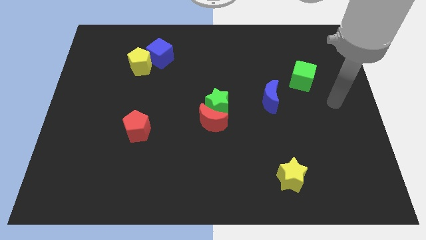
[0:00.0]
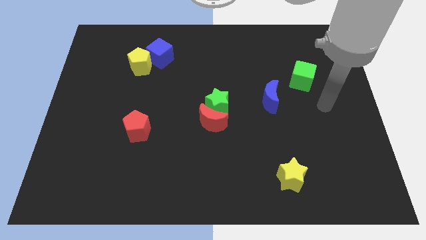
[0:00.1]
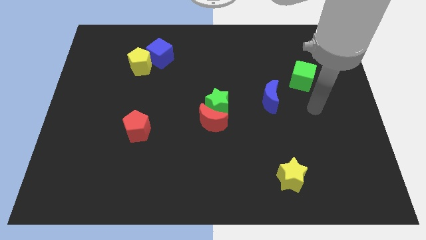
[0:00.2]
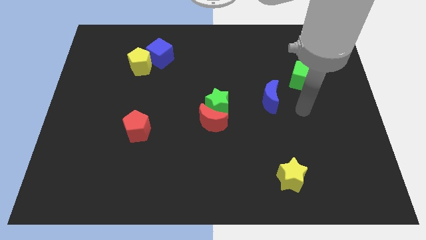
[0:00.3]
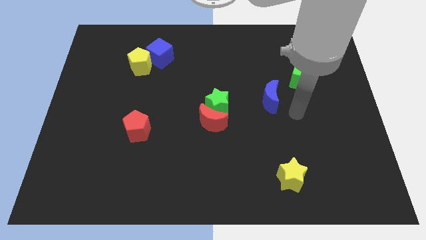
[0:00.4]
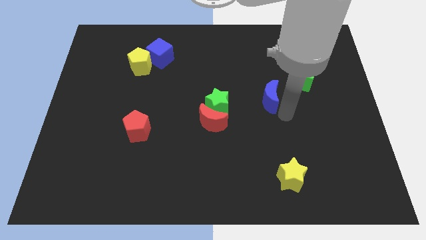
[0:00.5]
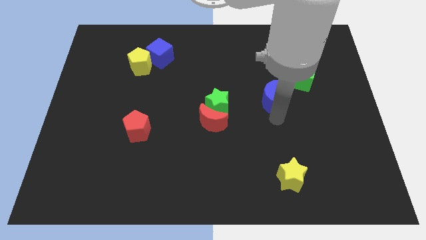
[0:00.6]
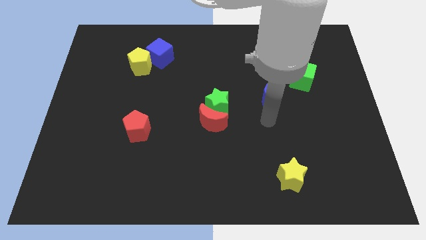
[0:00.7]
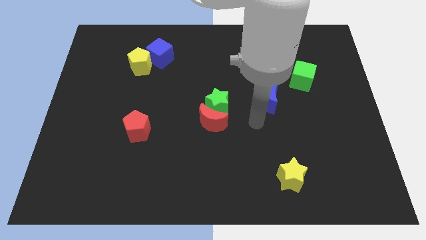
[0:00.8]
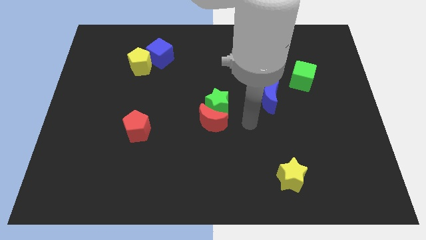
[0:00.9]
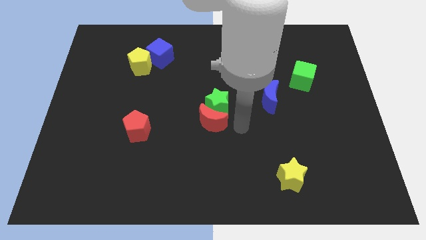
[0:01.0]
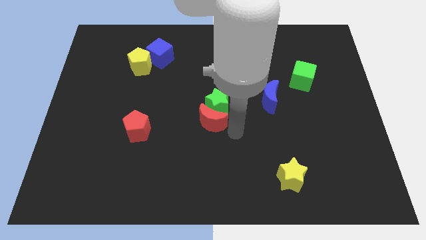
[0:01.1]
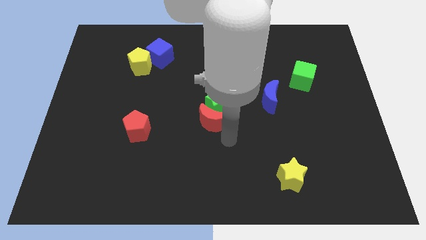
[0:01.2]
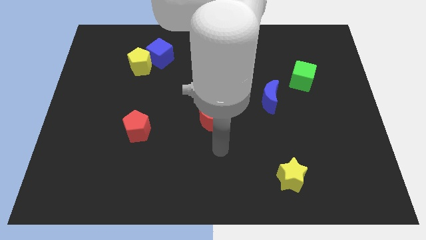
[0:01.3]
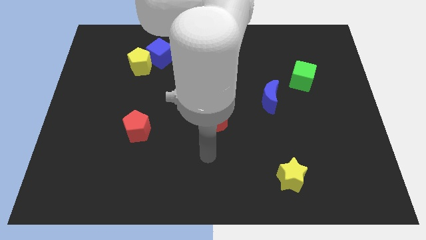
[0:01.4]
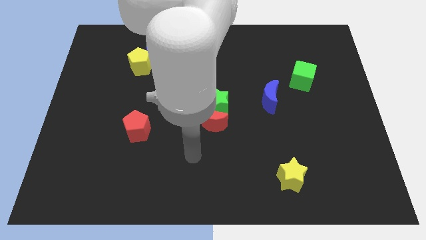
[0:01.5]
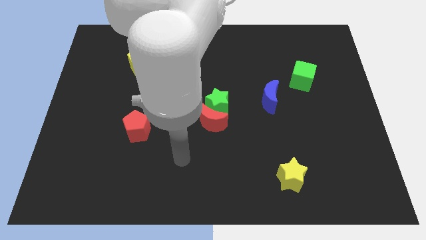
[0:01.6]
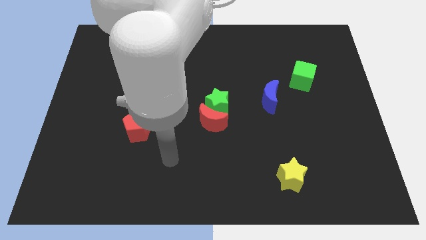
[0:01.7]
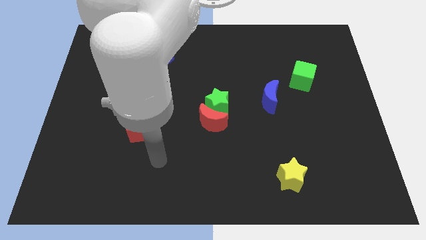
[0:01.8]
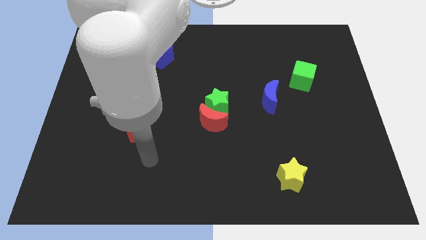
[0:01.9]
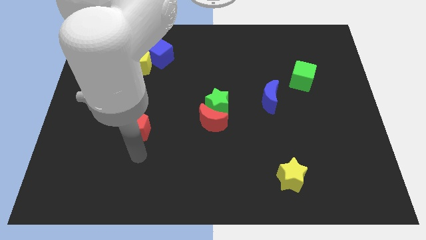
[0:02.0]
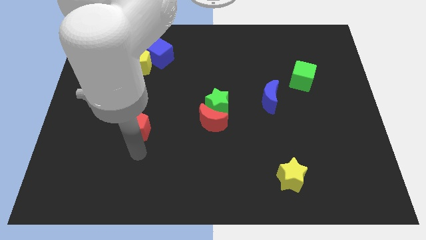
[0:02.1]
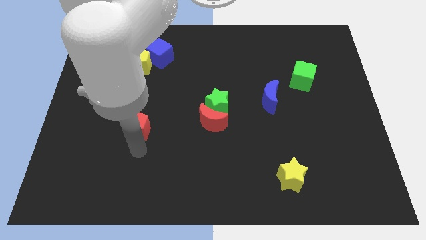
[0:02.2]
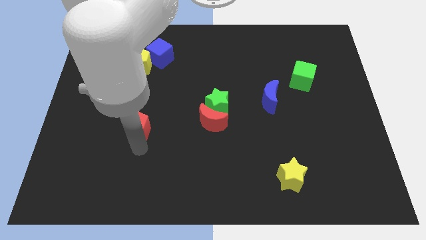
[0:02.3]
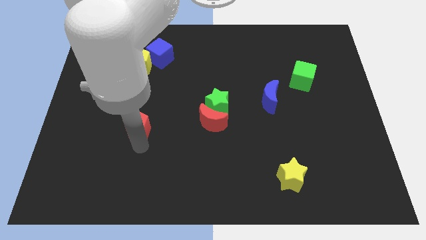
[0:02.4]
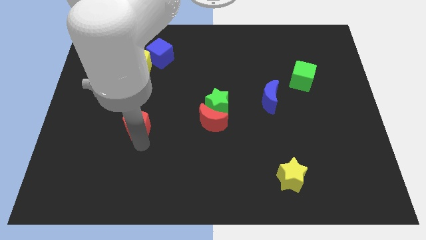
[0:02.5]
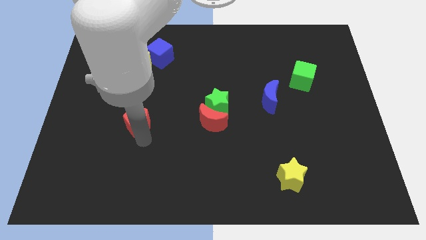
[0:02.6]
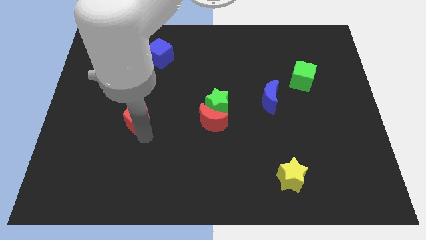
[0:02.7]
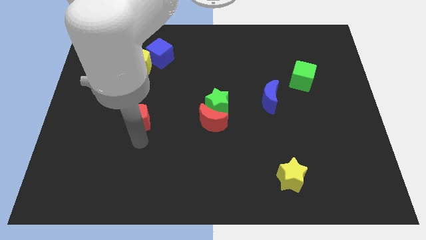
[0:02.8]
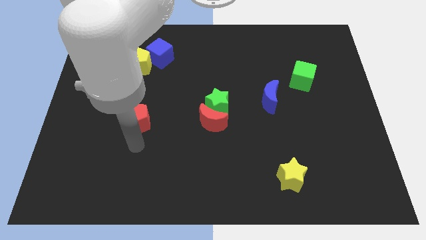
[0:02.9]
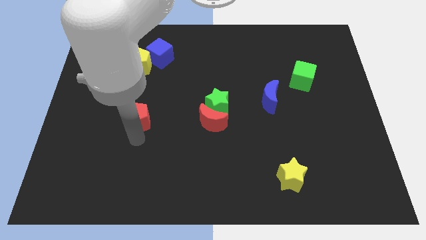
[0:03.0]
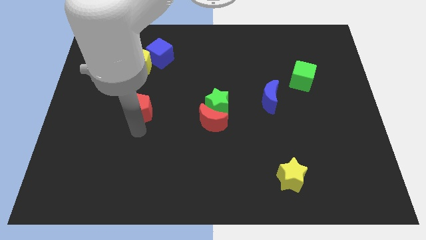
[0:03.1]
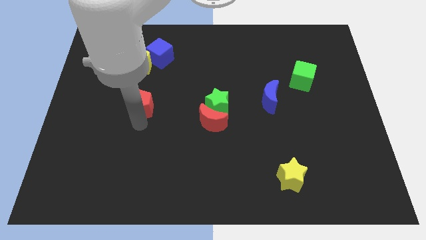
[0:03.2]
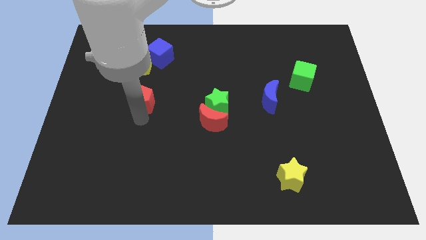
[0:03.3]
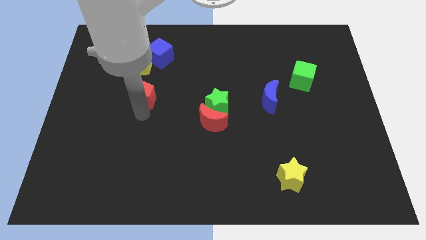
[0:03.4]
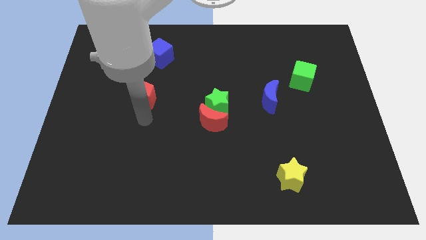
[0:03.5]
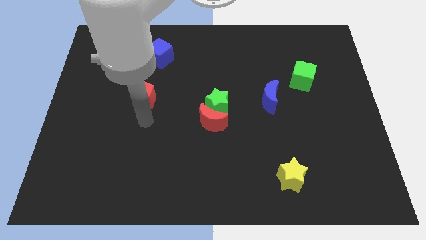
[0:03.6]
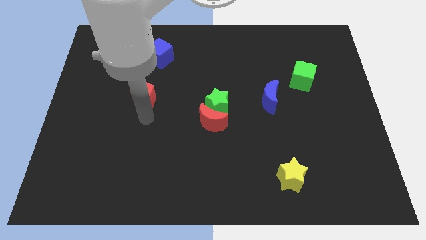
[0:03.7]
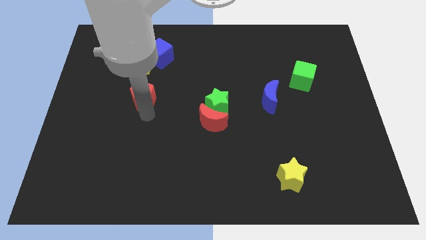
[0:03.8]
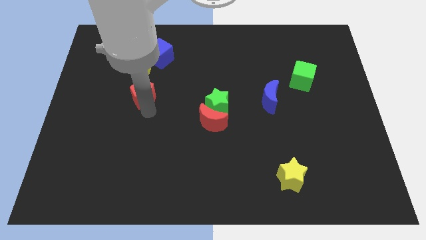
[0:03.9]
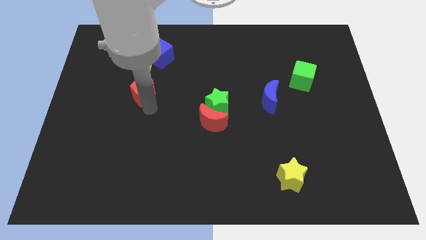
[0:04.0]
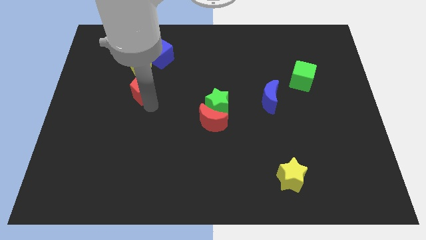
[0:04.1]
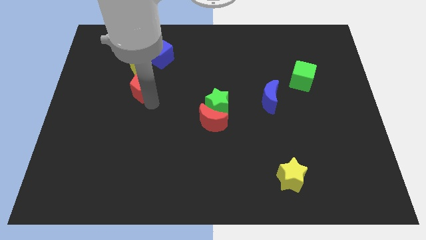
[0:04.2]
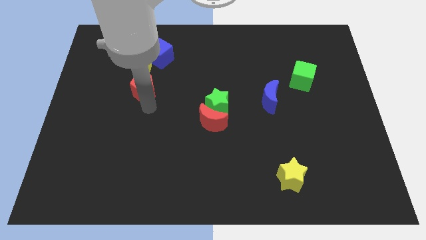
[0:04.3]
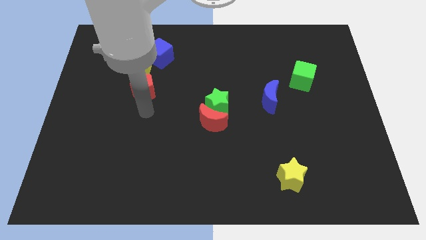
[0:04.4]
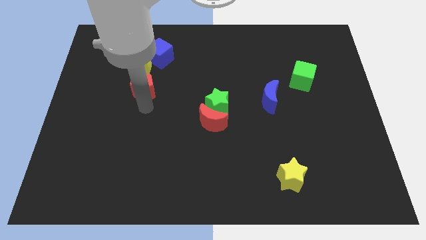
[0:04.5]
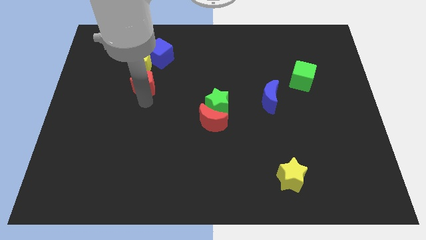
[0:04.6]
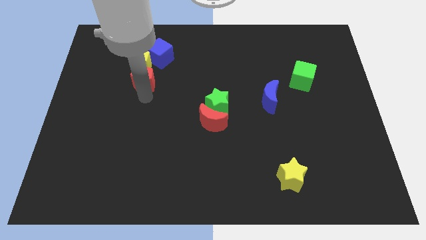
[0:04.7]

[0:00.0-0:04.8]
push the red pentagon close to the yellow pentagon

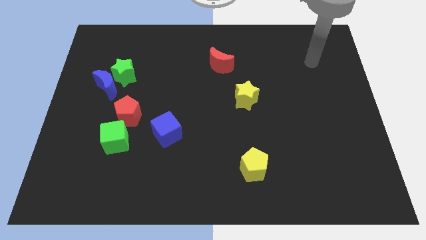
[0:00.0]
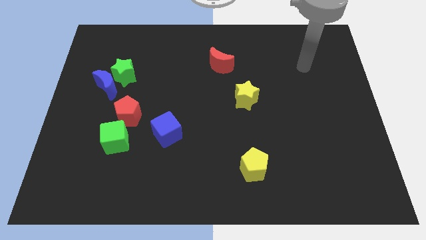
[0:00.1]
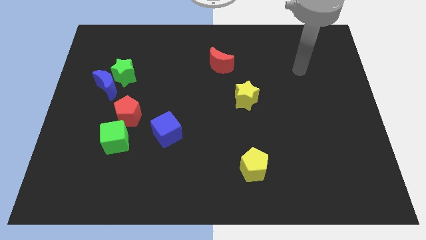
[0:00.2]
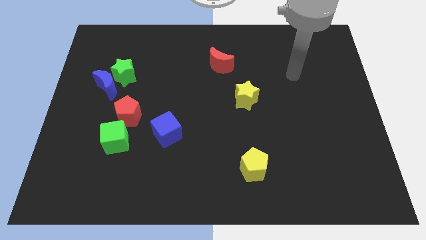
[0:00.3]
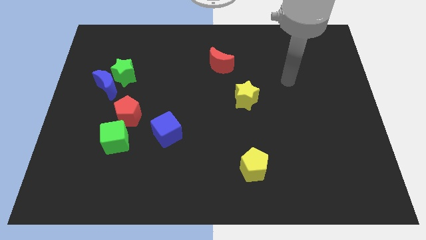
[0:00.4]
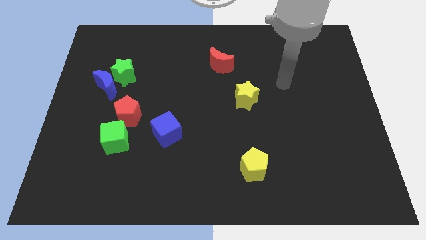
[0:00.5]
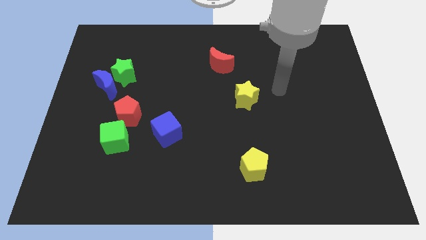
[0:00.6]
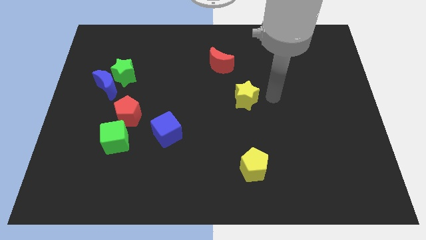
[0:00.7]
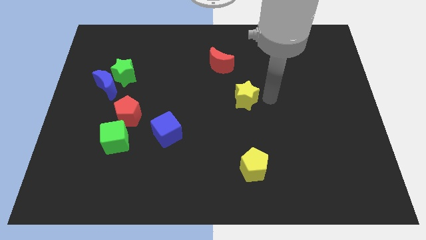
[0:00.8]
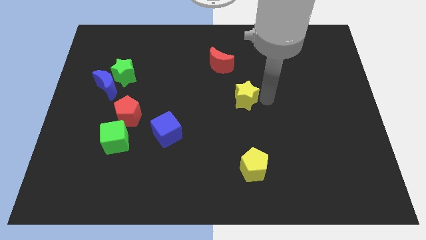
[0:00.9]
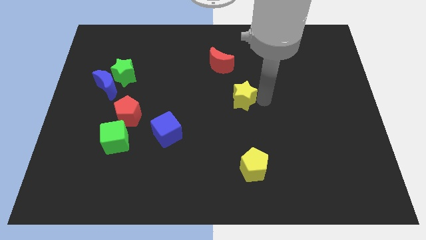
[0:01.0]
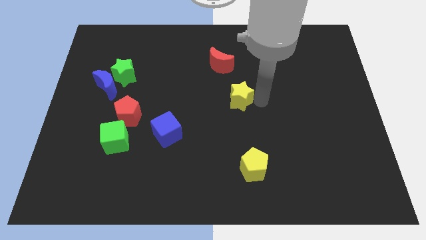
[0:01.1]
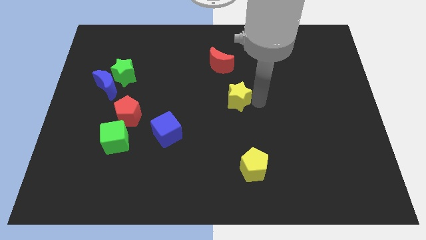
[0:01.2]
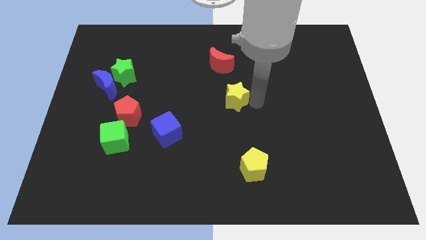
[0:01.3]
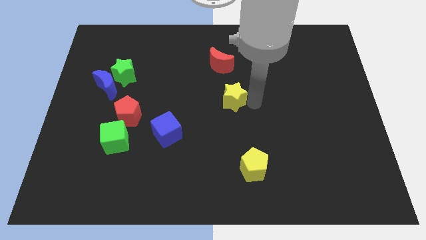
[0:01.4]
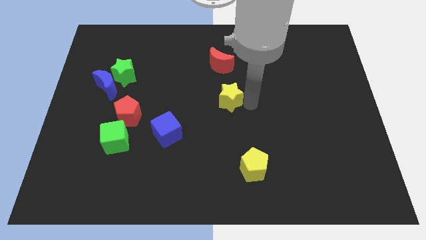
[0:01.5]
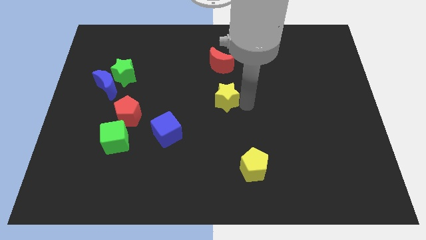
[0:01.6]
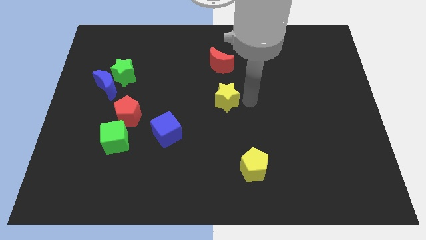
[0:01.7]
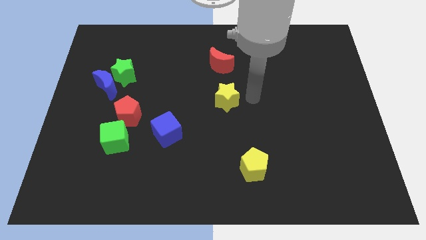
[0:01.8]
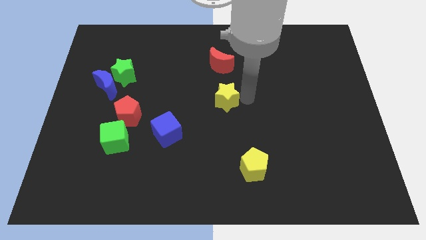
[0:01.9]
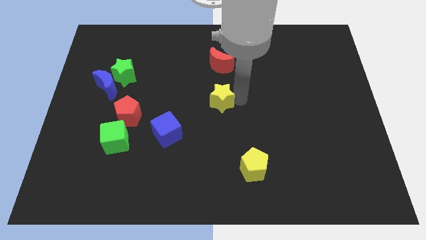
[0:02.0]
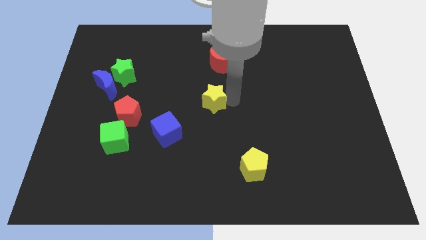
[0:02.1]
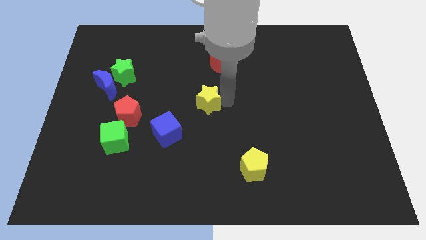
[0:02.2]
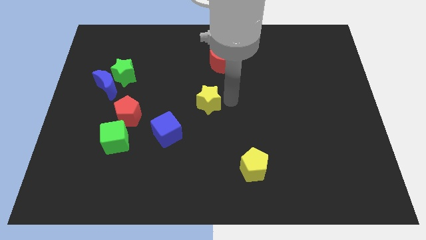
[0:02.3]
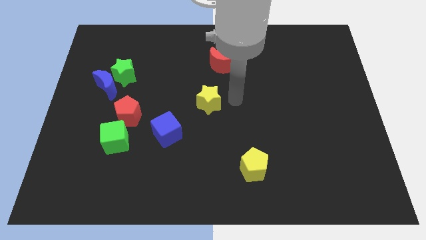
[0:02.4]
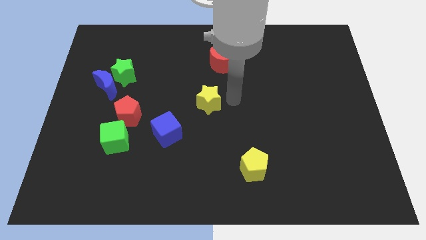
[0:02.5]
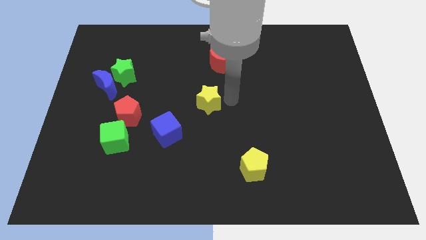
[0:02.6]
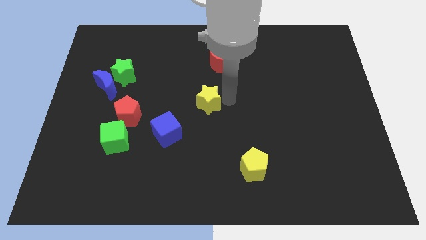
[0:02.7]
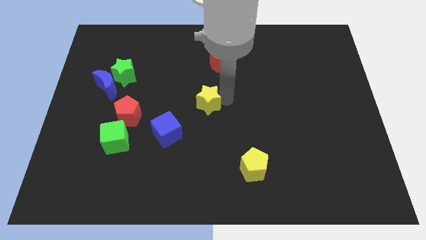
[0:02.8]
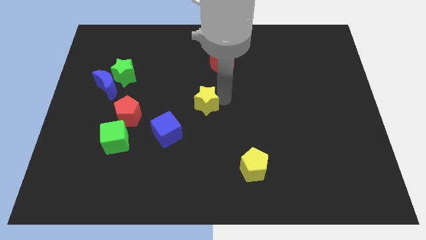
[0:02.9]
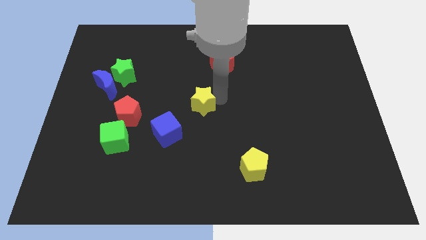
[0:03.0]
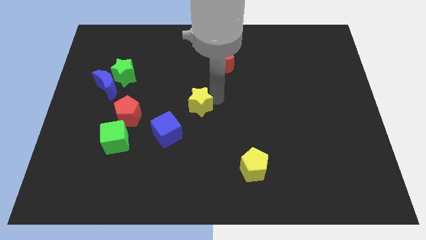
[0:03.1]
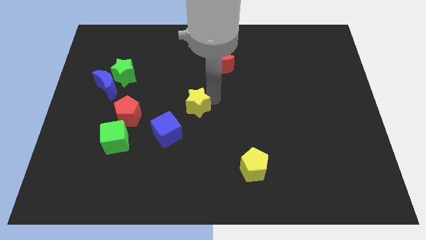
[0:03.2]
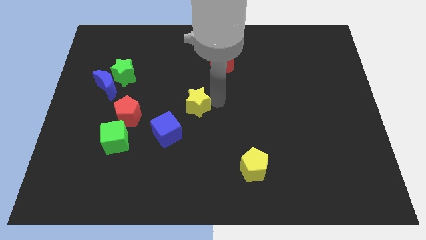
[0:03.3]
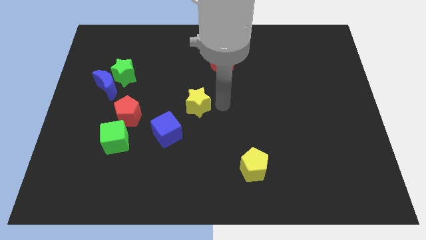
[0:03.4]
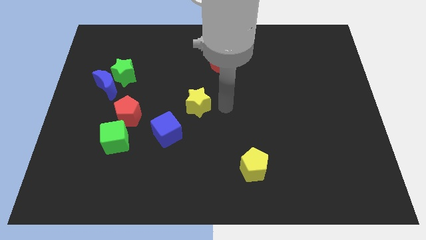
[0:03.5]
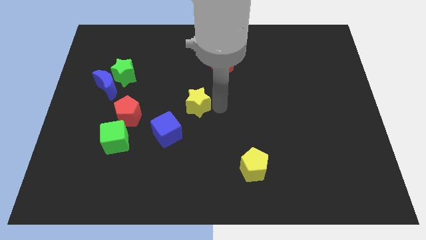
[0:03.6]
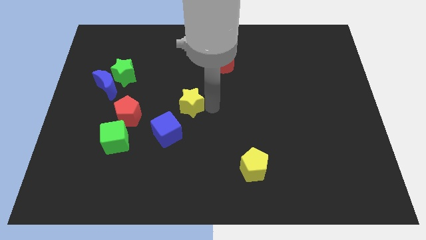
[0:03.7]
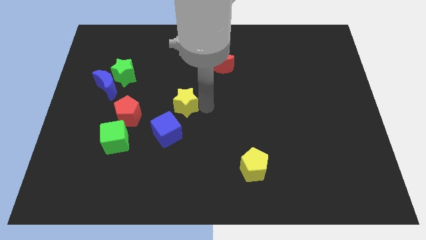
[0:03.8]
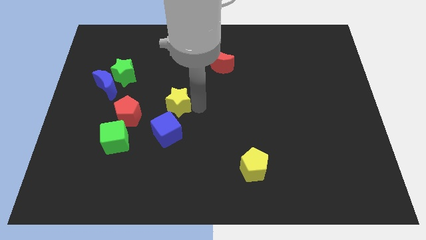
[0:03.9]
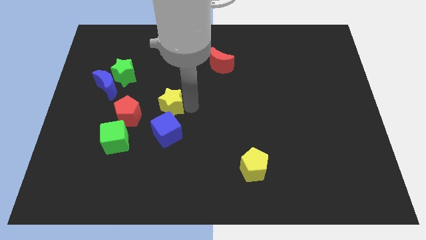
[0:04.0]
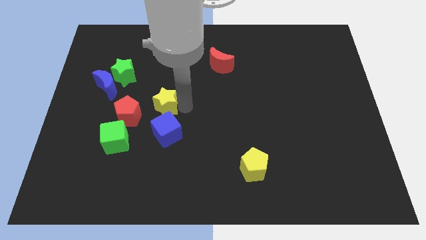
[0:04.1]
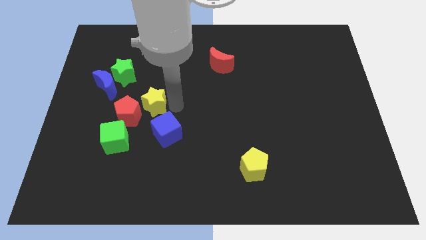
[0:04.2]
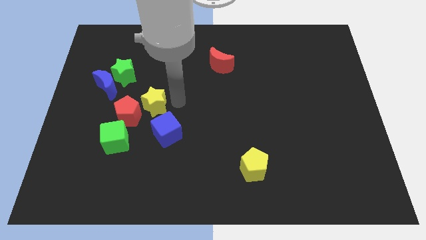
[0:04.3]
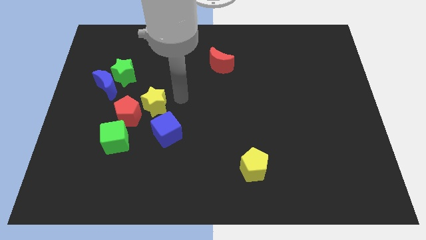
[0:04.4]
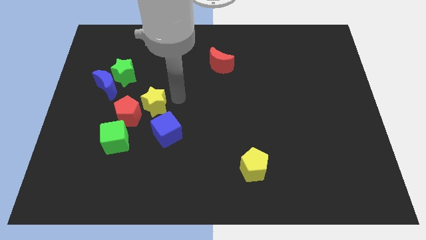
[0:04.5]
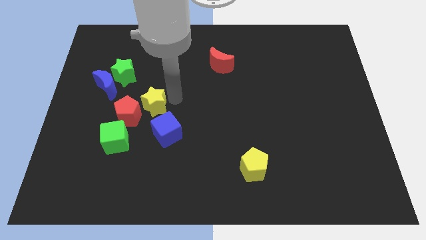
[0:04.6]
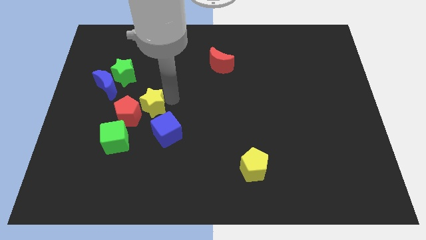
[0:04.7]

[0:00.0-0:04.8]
put the yellow star close to the red pentagon
